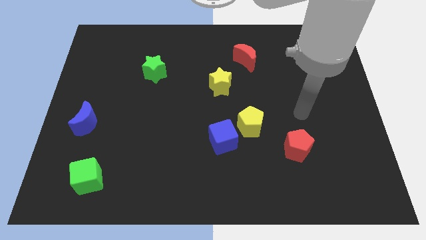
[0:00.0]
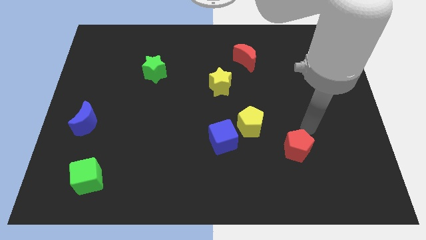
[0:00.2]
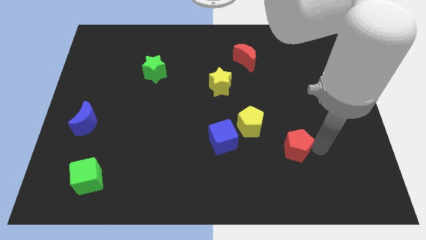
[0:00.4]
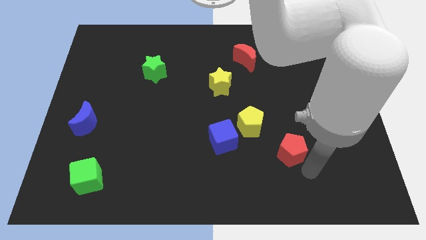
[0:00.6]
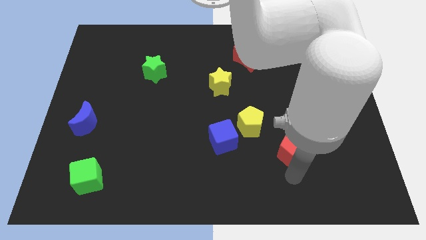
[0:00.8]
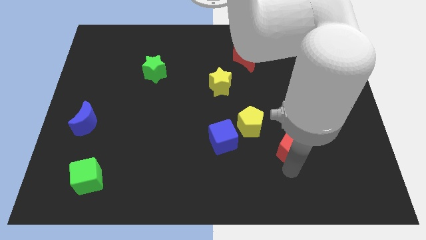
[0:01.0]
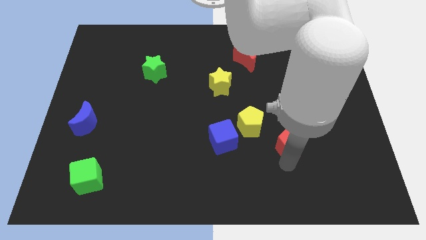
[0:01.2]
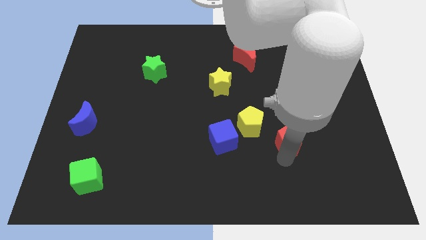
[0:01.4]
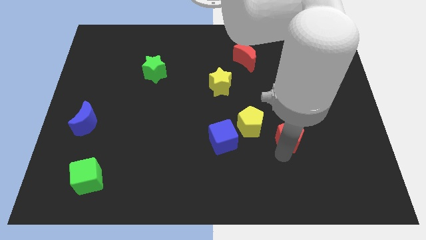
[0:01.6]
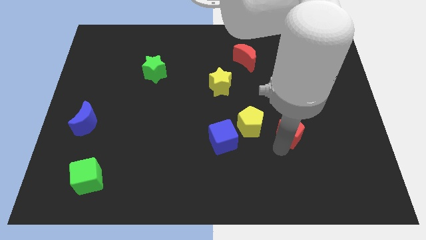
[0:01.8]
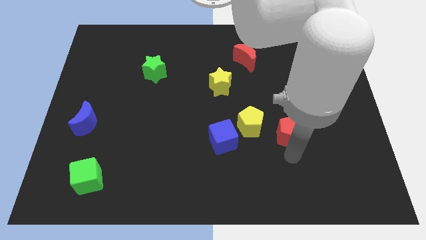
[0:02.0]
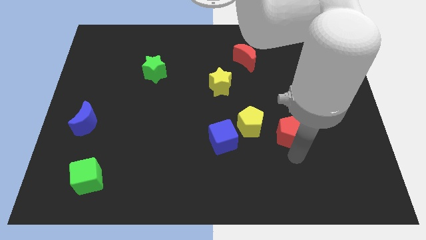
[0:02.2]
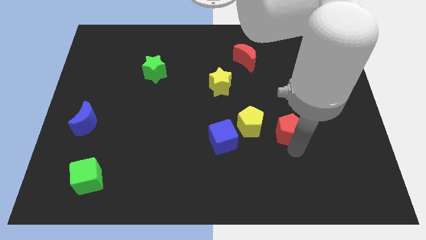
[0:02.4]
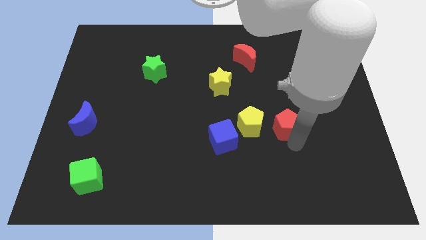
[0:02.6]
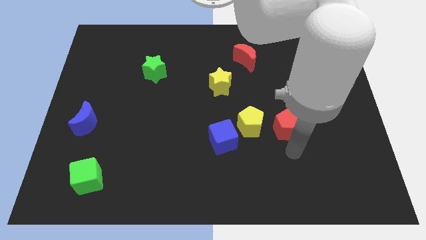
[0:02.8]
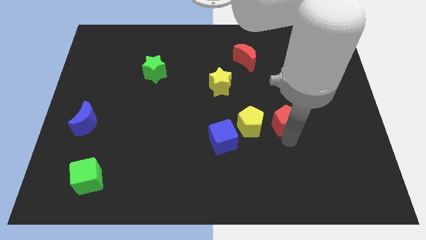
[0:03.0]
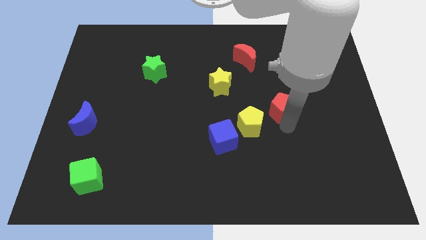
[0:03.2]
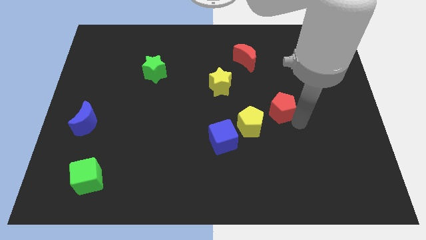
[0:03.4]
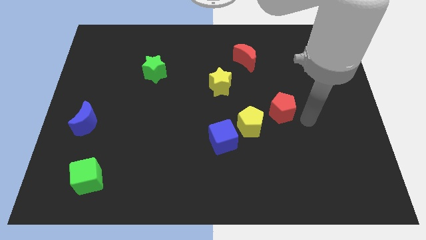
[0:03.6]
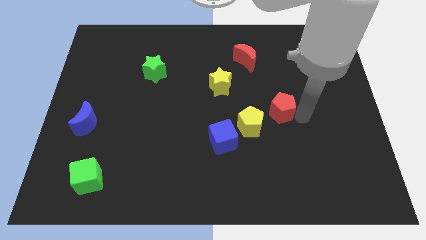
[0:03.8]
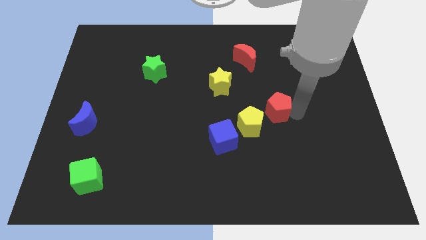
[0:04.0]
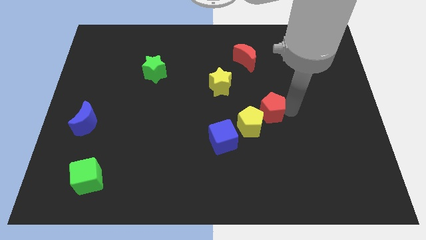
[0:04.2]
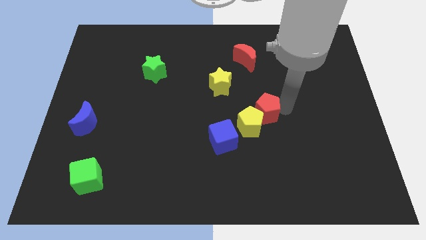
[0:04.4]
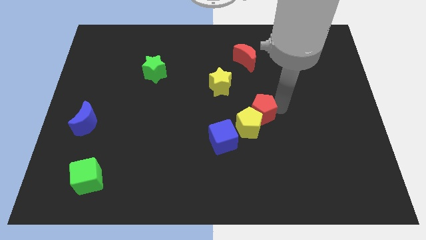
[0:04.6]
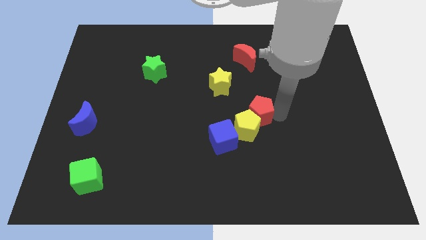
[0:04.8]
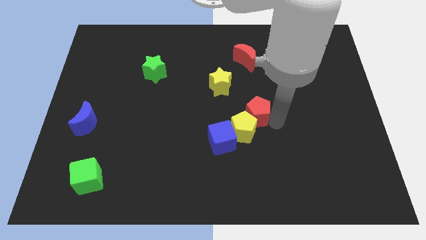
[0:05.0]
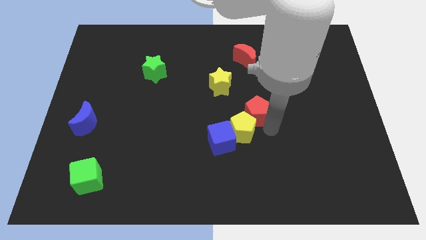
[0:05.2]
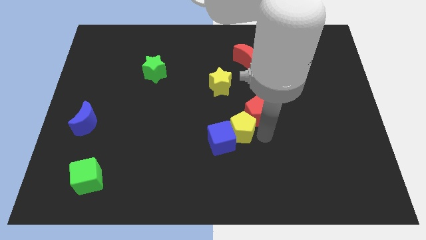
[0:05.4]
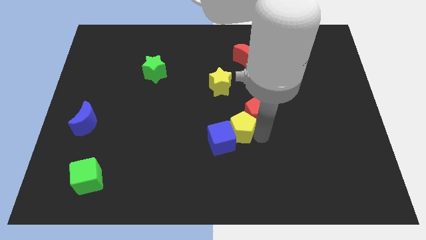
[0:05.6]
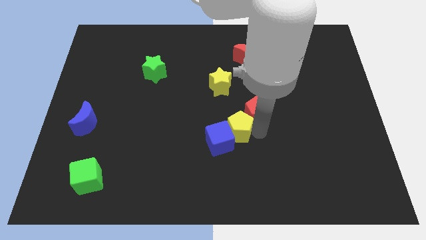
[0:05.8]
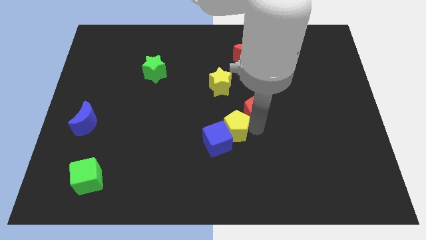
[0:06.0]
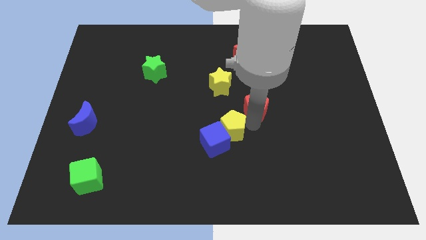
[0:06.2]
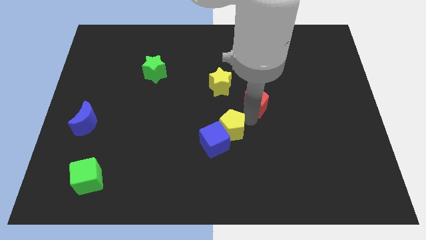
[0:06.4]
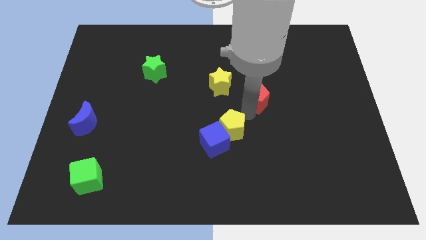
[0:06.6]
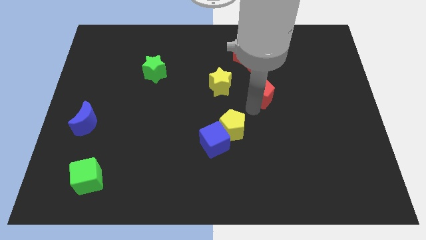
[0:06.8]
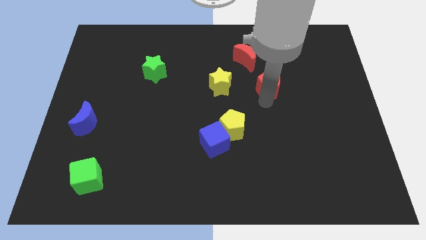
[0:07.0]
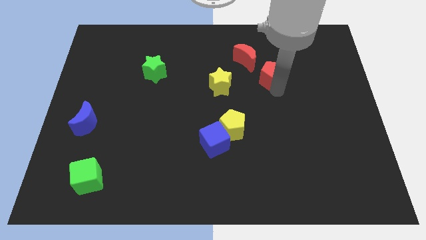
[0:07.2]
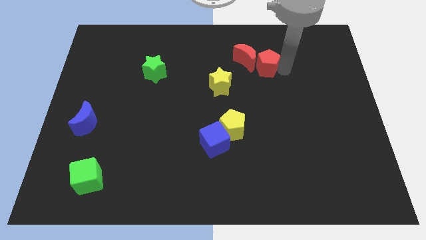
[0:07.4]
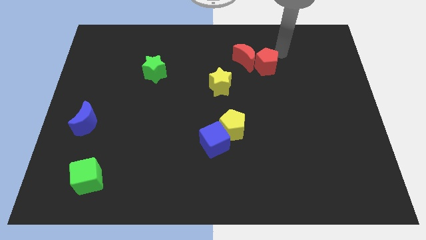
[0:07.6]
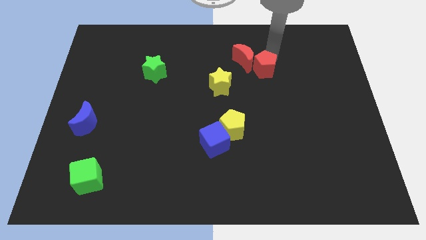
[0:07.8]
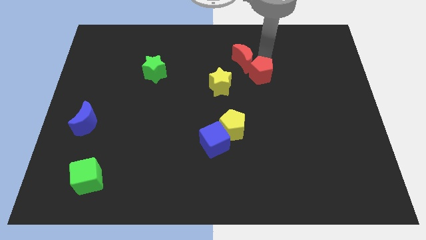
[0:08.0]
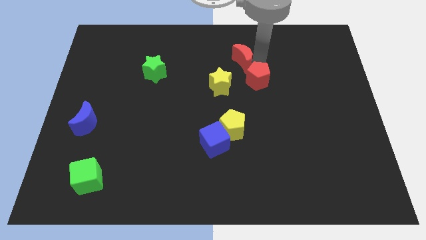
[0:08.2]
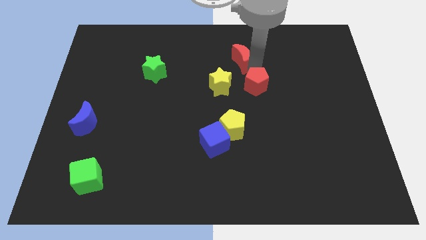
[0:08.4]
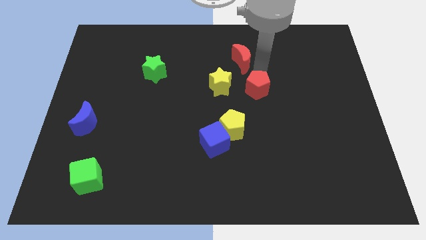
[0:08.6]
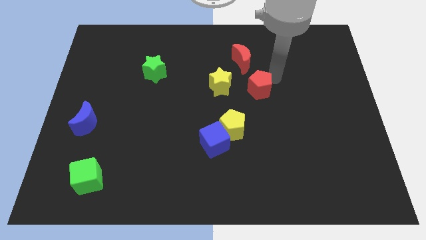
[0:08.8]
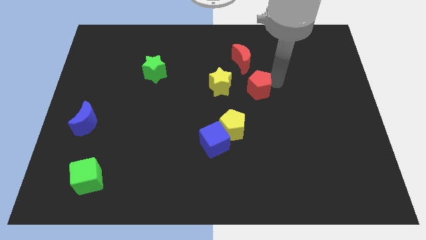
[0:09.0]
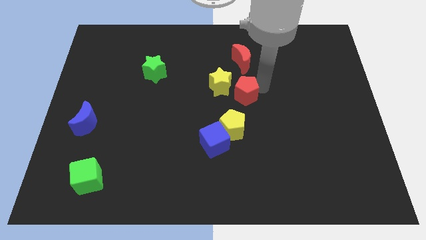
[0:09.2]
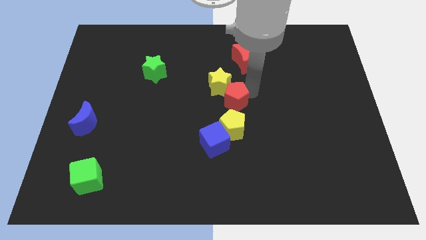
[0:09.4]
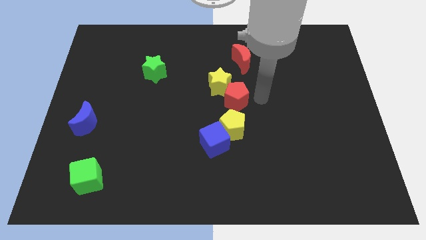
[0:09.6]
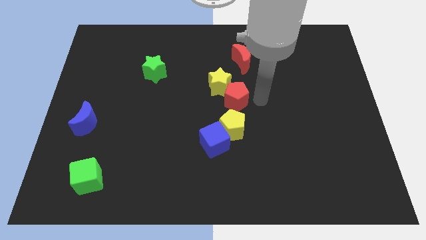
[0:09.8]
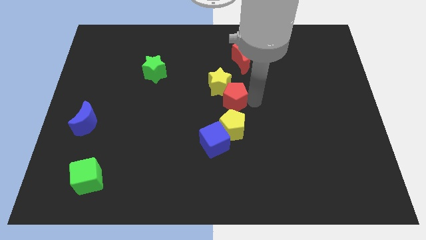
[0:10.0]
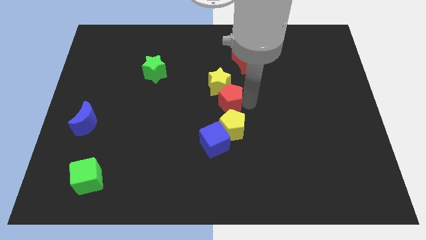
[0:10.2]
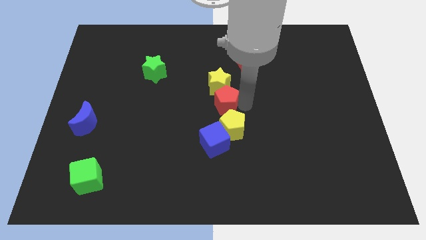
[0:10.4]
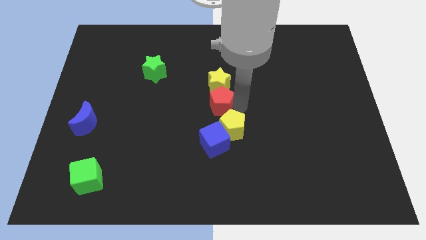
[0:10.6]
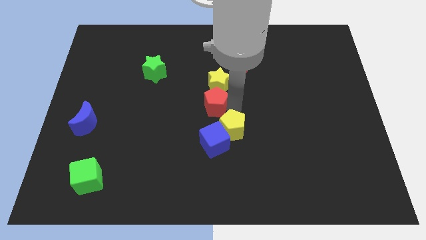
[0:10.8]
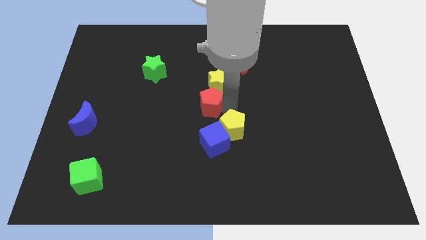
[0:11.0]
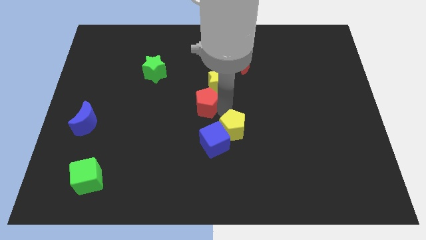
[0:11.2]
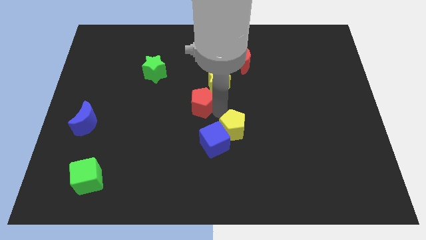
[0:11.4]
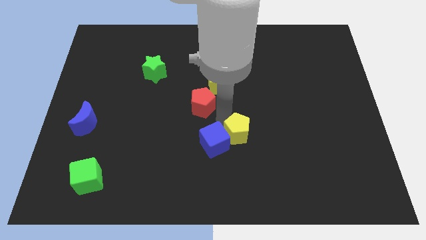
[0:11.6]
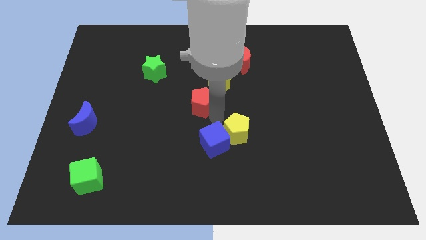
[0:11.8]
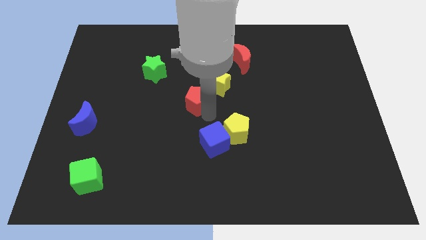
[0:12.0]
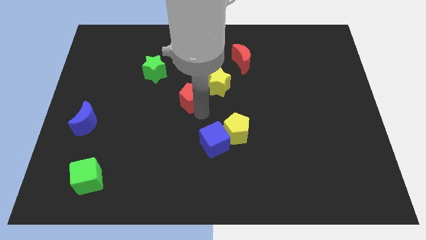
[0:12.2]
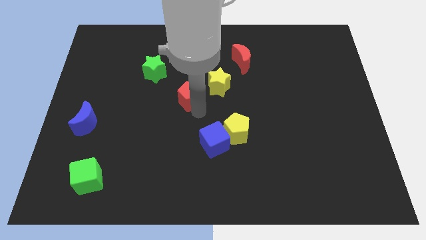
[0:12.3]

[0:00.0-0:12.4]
push the red pentagon to the bottom right of the green star
